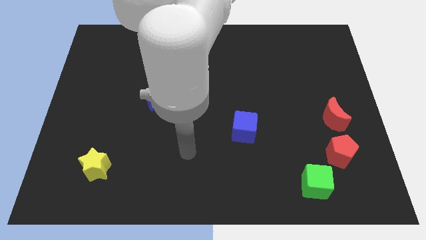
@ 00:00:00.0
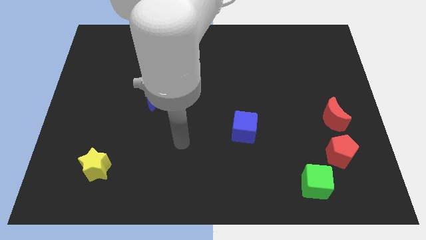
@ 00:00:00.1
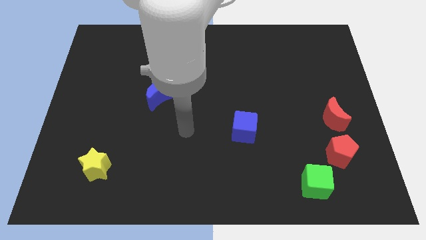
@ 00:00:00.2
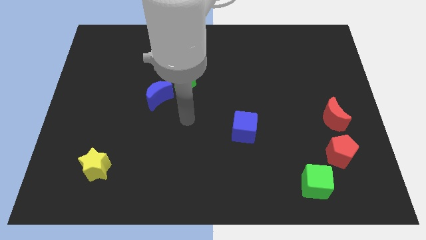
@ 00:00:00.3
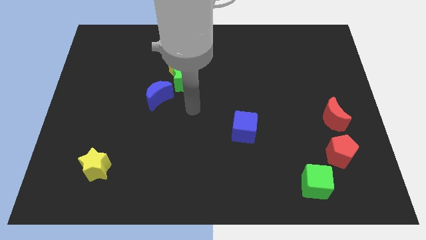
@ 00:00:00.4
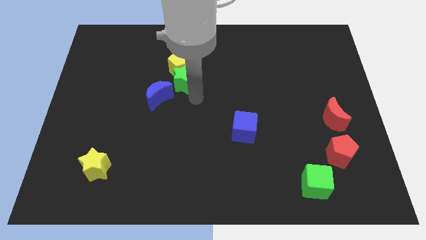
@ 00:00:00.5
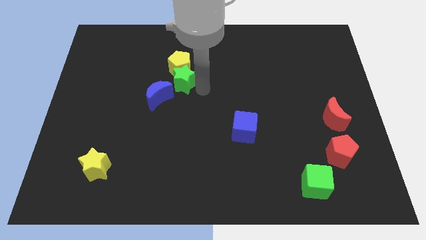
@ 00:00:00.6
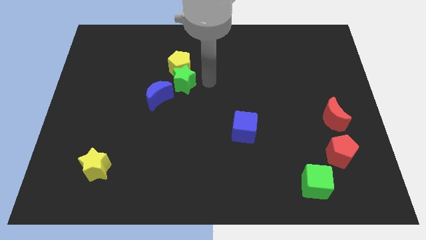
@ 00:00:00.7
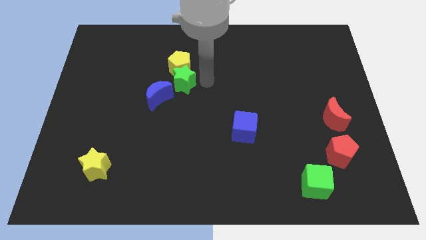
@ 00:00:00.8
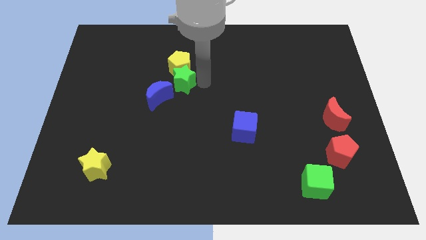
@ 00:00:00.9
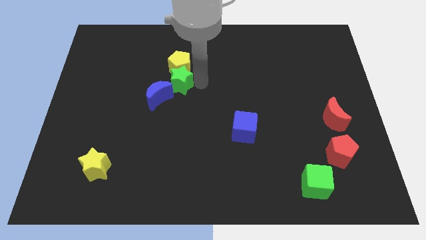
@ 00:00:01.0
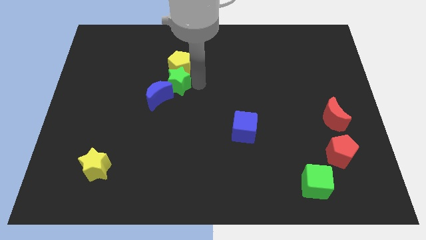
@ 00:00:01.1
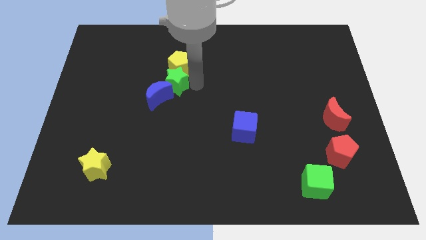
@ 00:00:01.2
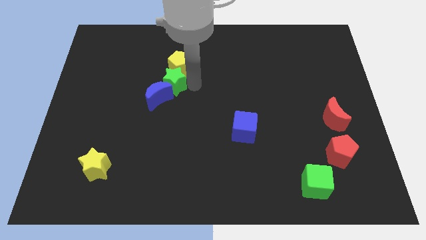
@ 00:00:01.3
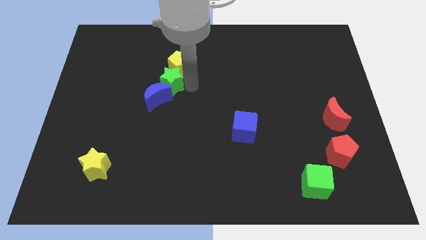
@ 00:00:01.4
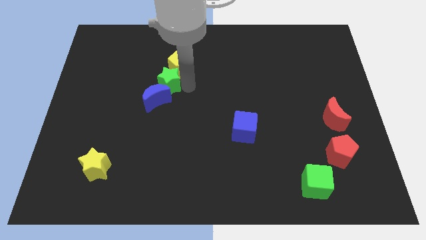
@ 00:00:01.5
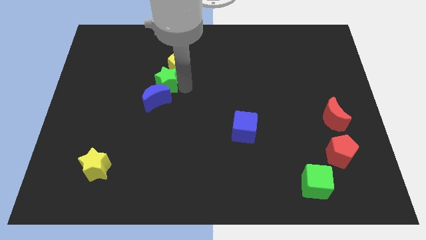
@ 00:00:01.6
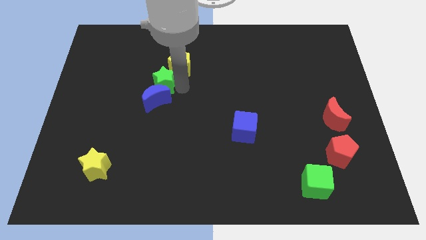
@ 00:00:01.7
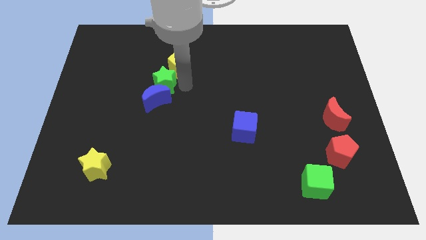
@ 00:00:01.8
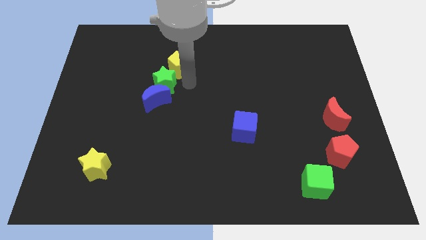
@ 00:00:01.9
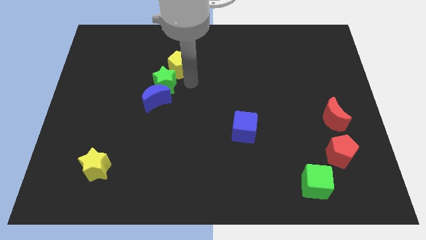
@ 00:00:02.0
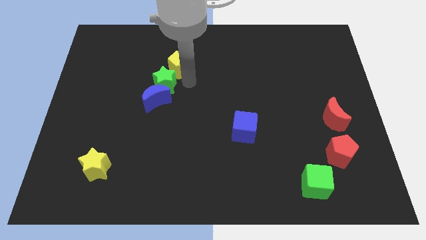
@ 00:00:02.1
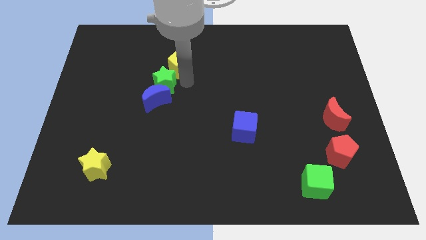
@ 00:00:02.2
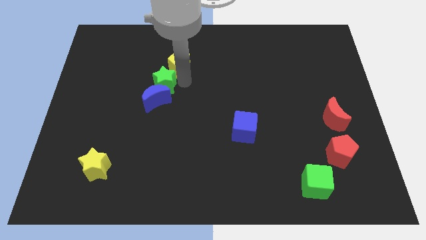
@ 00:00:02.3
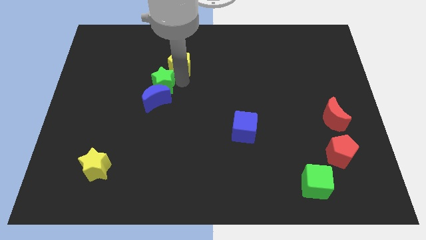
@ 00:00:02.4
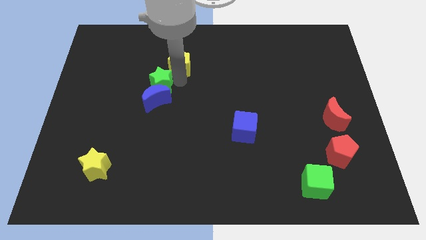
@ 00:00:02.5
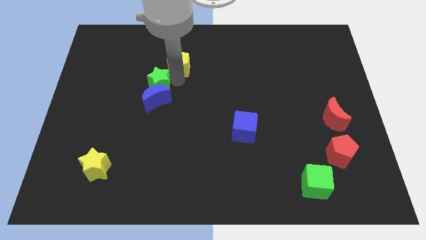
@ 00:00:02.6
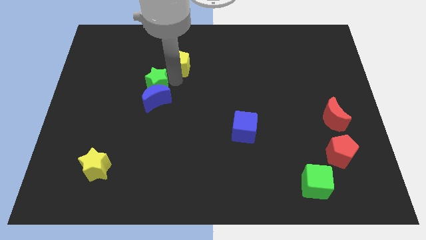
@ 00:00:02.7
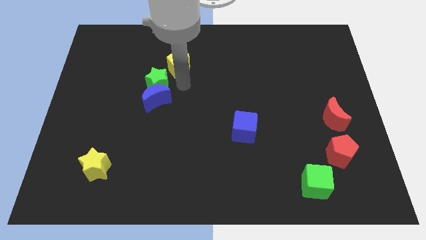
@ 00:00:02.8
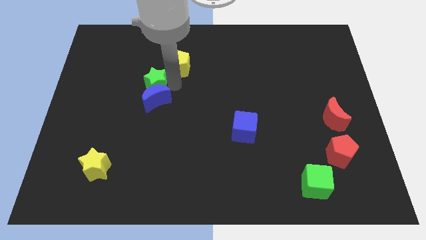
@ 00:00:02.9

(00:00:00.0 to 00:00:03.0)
slide the green star left a little bit

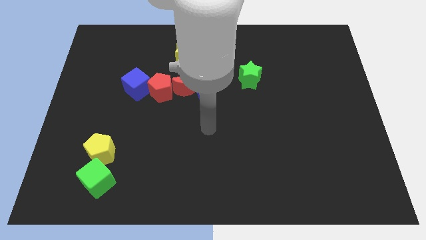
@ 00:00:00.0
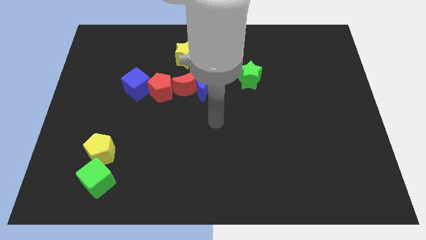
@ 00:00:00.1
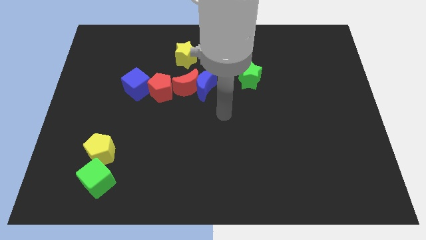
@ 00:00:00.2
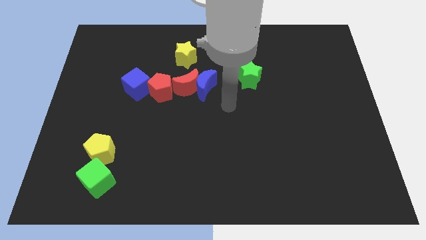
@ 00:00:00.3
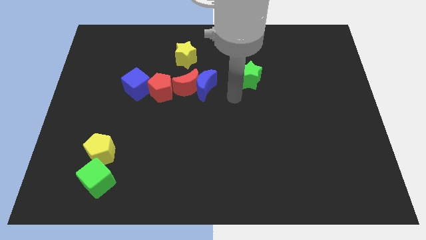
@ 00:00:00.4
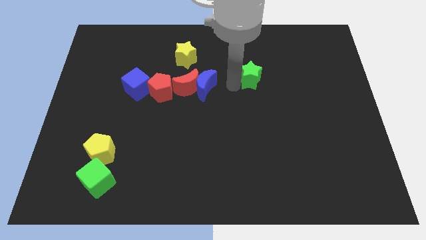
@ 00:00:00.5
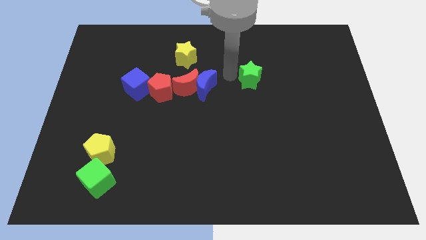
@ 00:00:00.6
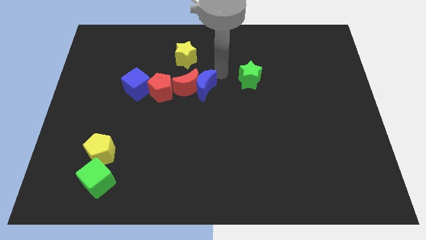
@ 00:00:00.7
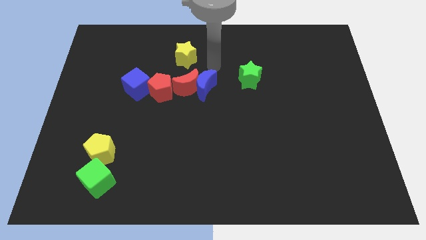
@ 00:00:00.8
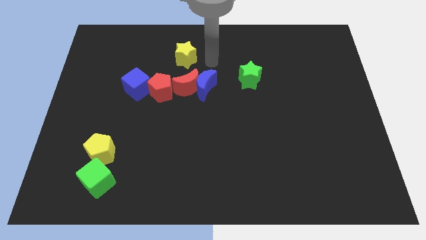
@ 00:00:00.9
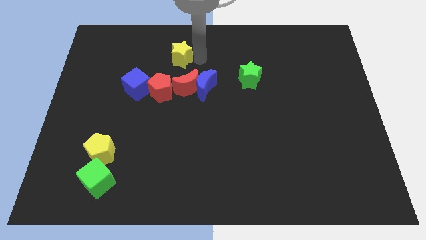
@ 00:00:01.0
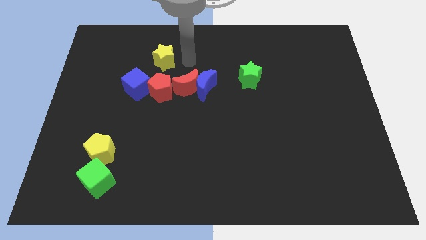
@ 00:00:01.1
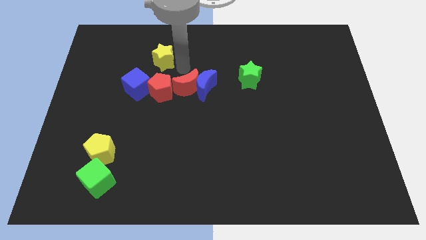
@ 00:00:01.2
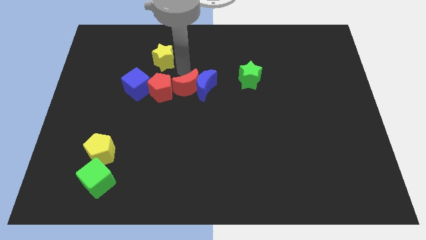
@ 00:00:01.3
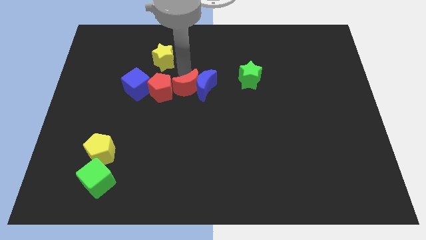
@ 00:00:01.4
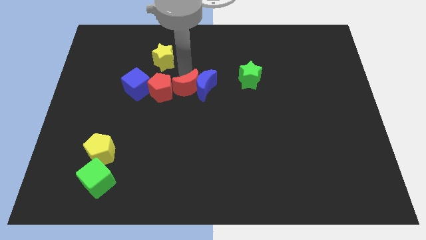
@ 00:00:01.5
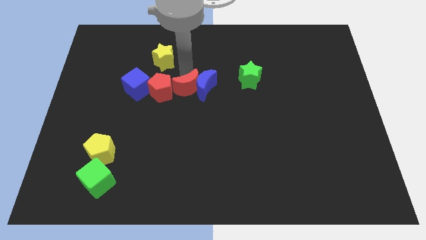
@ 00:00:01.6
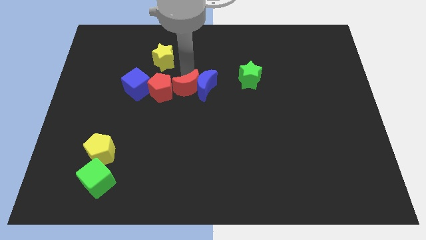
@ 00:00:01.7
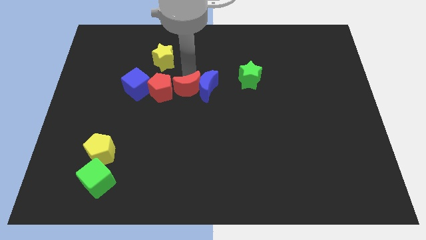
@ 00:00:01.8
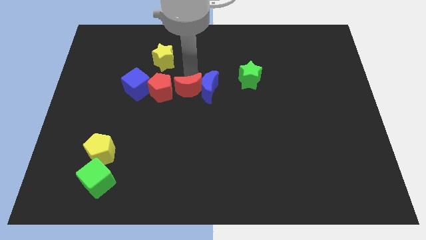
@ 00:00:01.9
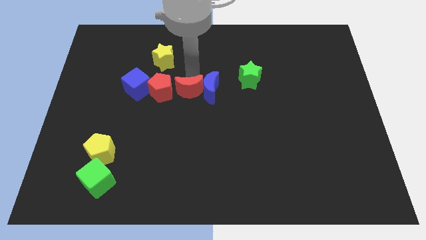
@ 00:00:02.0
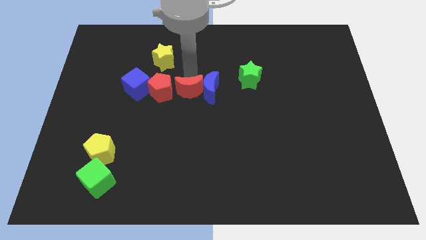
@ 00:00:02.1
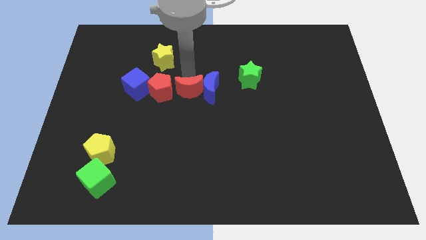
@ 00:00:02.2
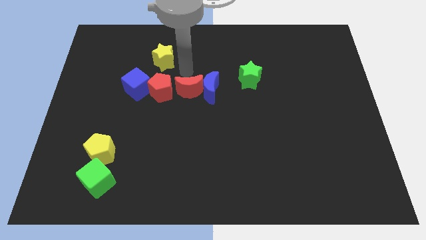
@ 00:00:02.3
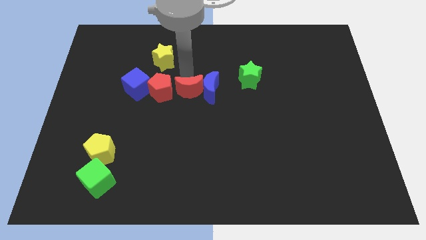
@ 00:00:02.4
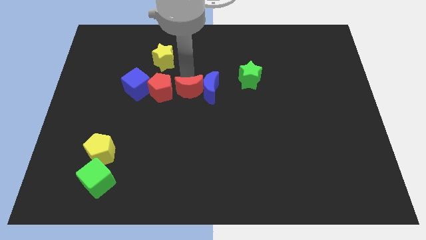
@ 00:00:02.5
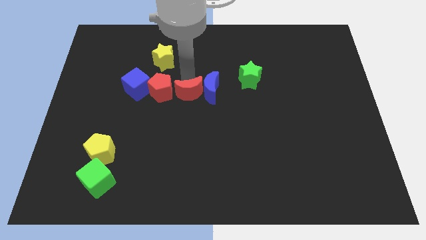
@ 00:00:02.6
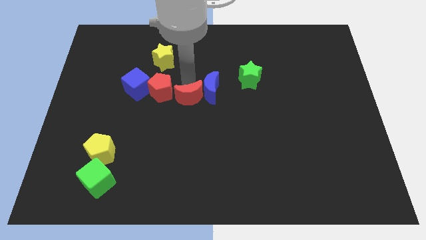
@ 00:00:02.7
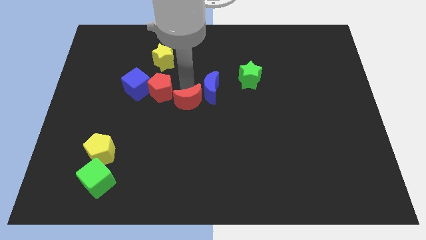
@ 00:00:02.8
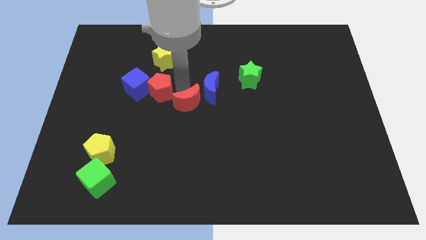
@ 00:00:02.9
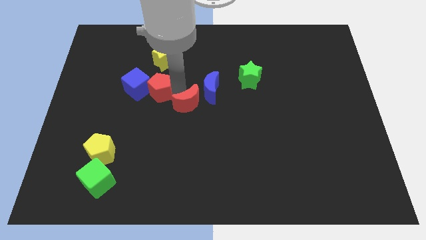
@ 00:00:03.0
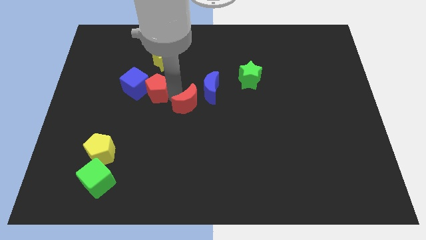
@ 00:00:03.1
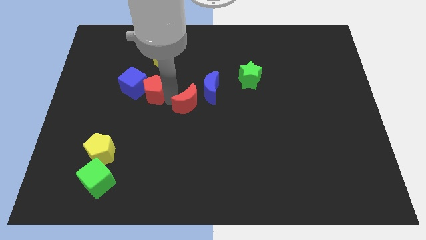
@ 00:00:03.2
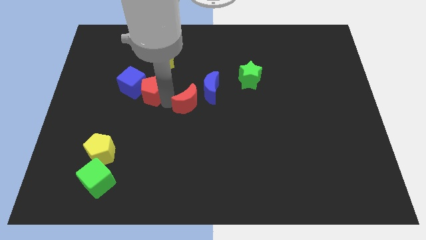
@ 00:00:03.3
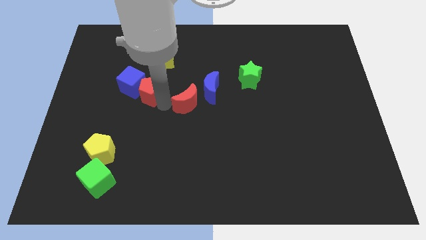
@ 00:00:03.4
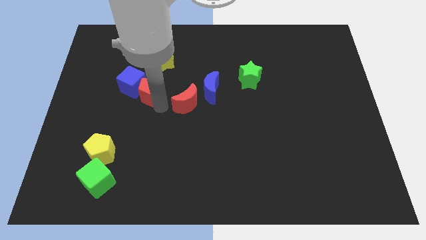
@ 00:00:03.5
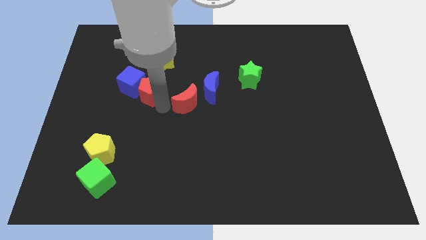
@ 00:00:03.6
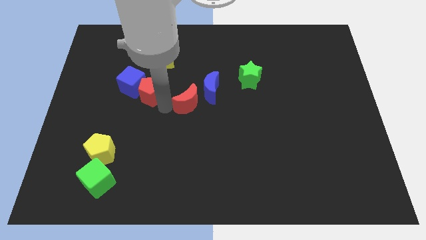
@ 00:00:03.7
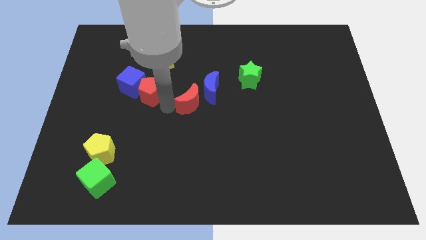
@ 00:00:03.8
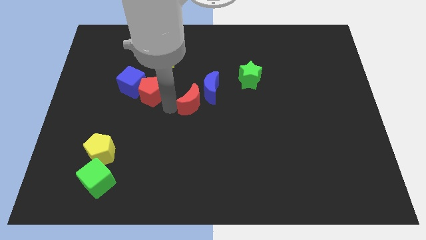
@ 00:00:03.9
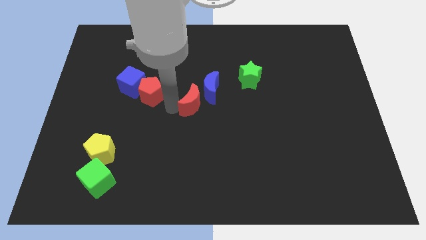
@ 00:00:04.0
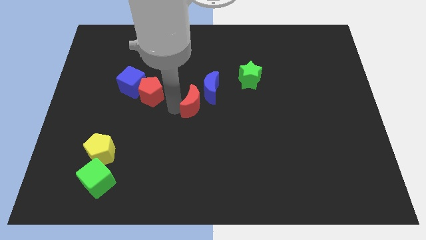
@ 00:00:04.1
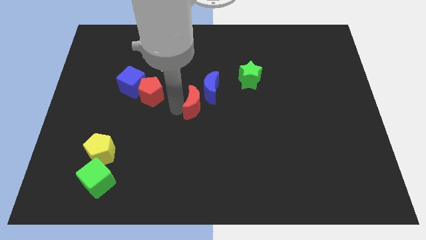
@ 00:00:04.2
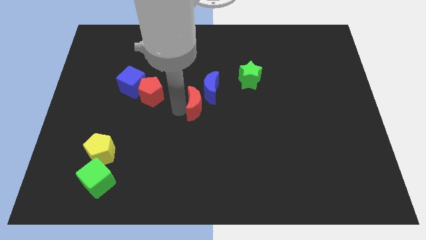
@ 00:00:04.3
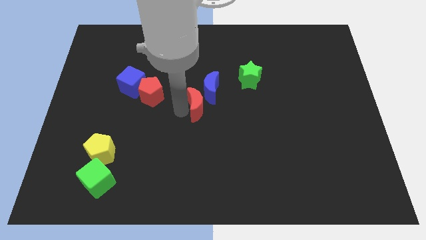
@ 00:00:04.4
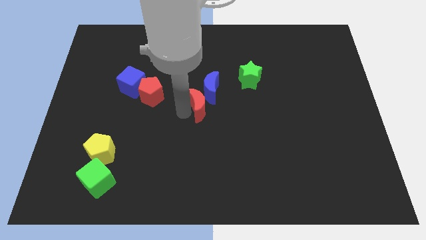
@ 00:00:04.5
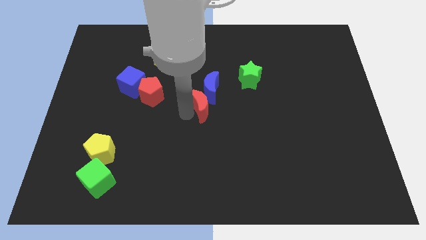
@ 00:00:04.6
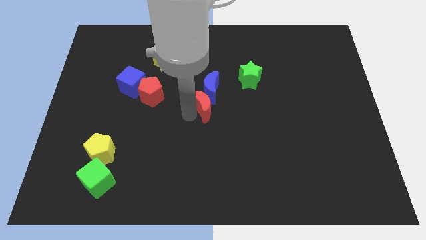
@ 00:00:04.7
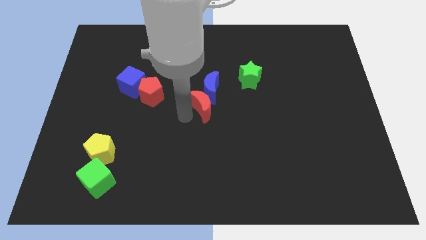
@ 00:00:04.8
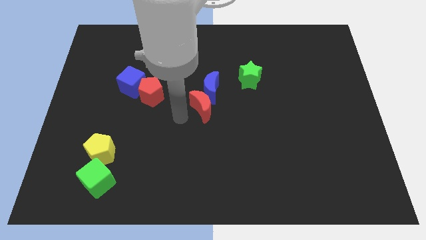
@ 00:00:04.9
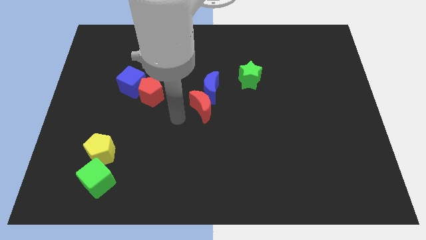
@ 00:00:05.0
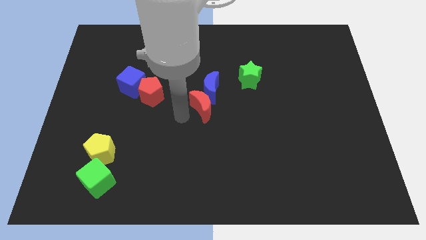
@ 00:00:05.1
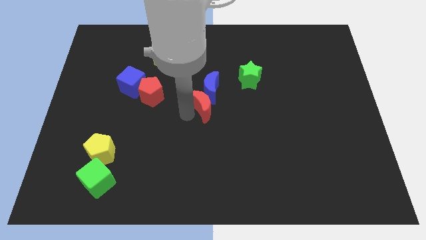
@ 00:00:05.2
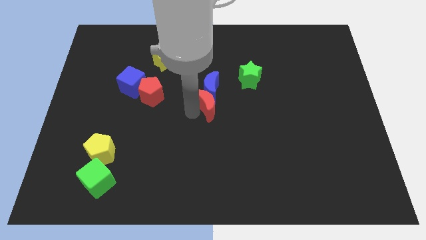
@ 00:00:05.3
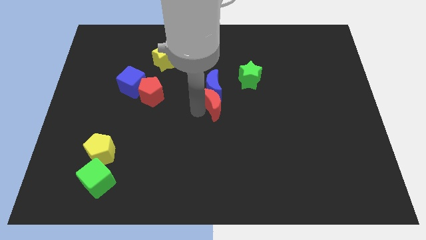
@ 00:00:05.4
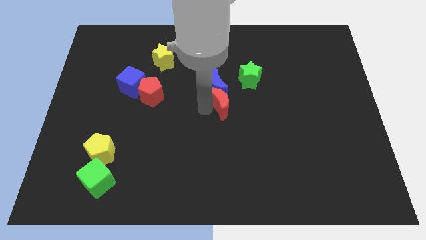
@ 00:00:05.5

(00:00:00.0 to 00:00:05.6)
slightly push the red moon right
